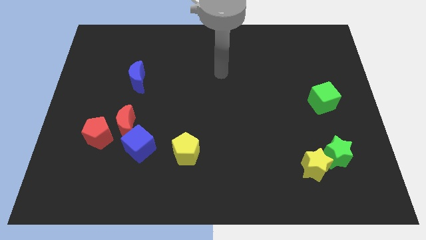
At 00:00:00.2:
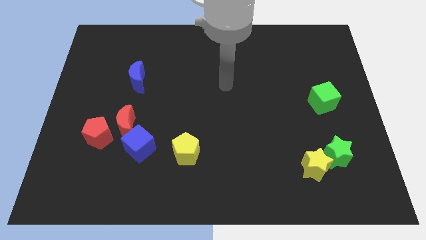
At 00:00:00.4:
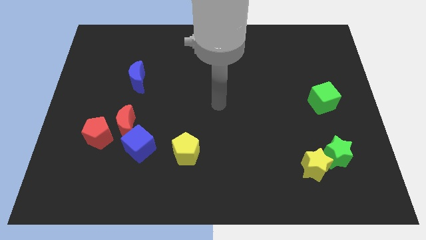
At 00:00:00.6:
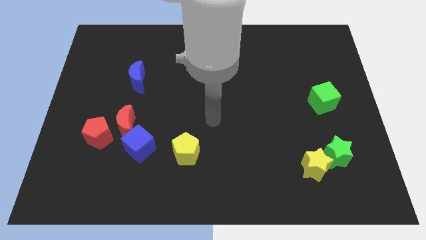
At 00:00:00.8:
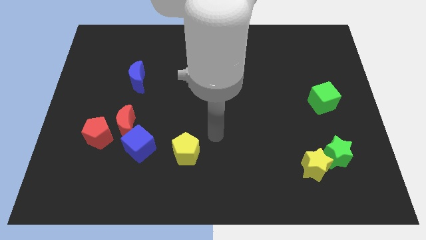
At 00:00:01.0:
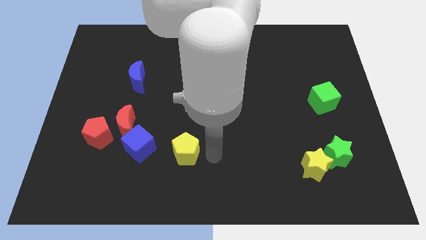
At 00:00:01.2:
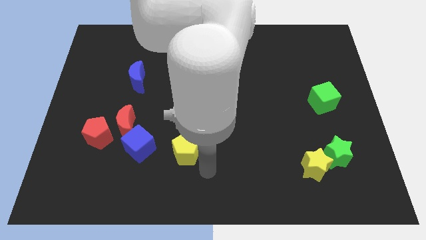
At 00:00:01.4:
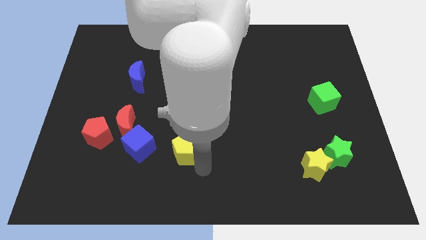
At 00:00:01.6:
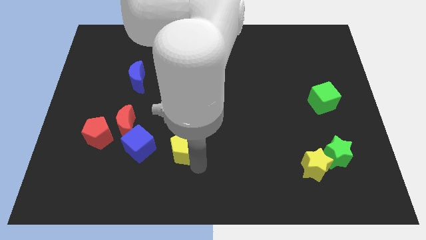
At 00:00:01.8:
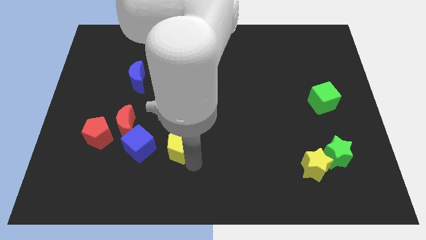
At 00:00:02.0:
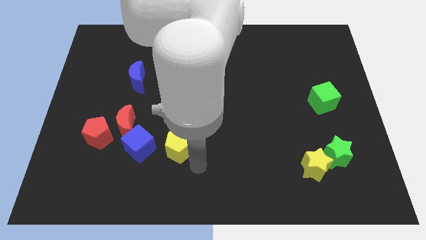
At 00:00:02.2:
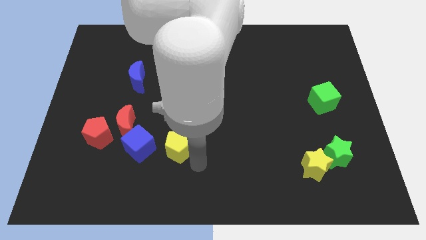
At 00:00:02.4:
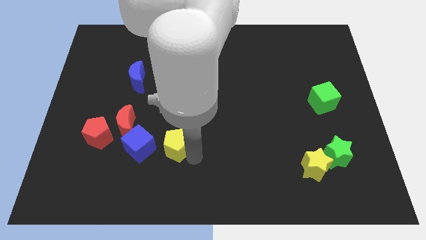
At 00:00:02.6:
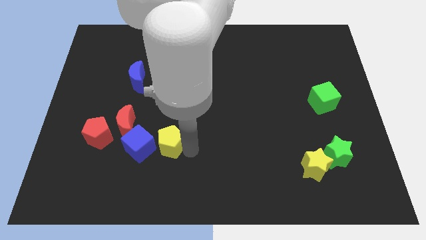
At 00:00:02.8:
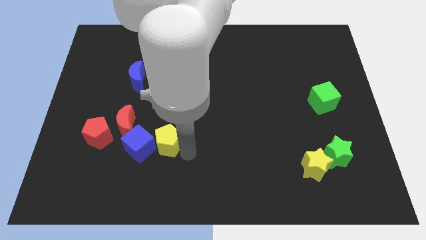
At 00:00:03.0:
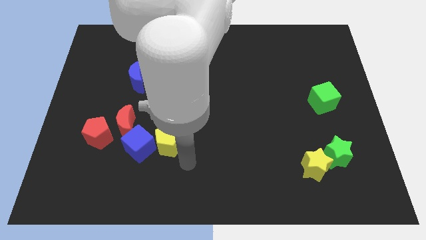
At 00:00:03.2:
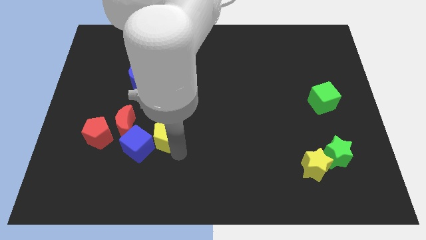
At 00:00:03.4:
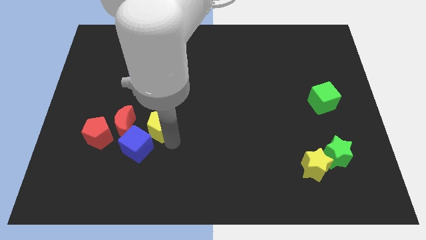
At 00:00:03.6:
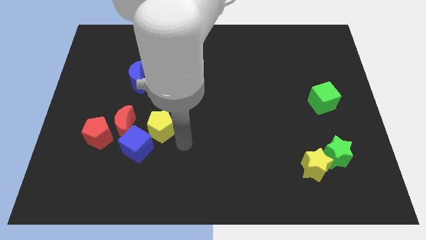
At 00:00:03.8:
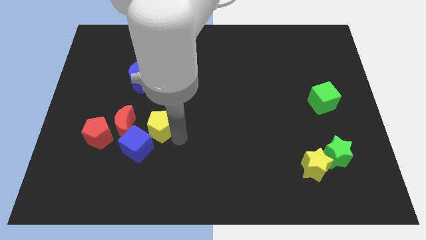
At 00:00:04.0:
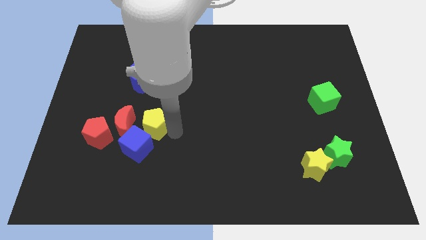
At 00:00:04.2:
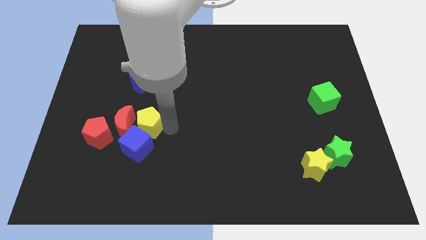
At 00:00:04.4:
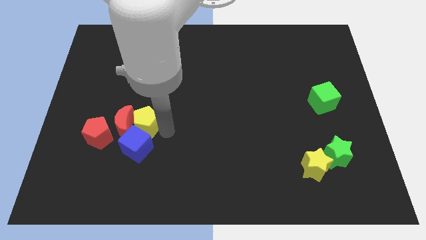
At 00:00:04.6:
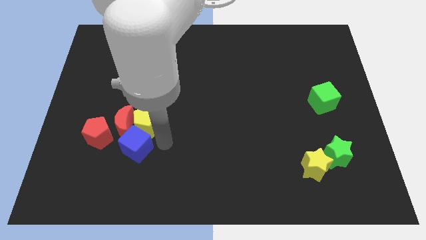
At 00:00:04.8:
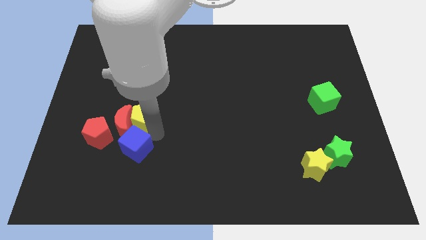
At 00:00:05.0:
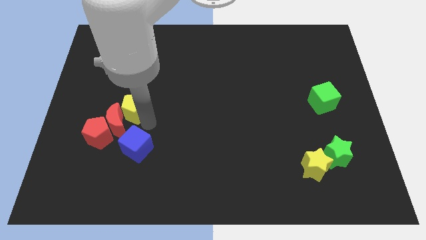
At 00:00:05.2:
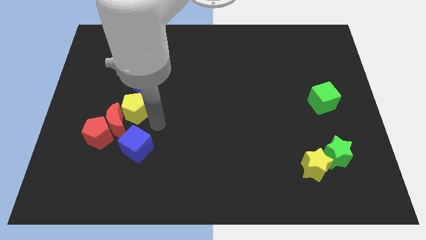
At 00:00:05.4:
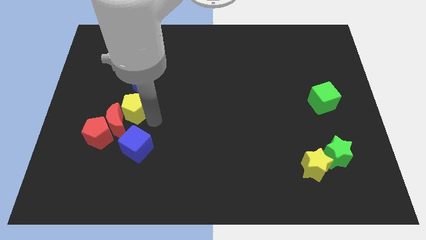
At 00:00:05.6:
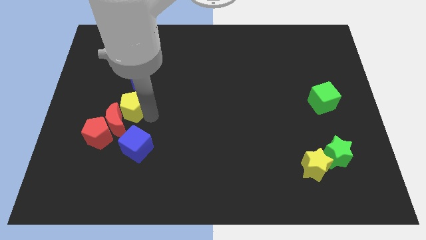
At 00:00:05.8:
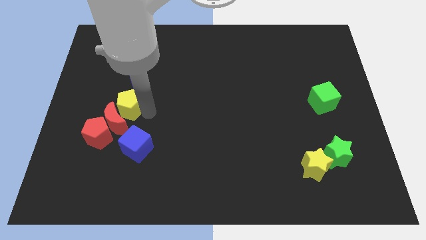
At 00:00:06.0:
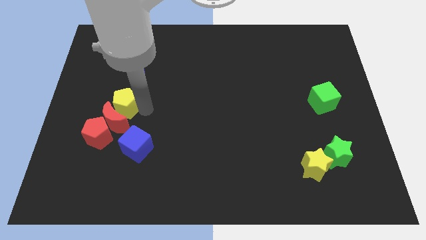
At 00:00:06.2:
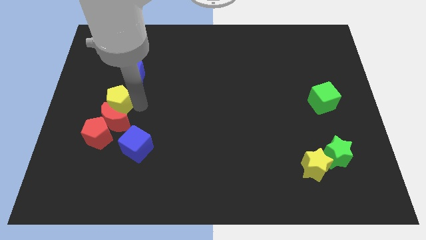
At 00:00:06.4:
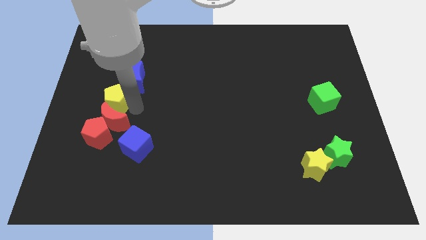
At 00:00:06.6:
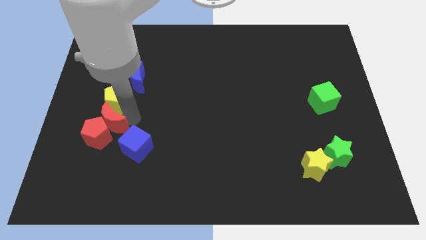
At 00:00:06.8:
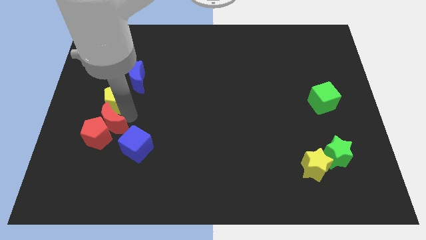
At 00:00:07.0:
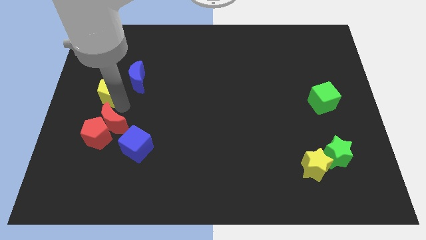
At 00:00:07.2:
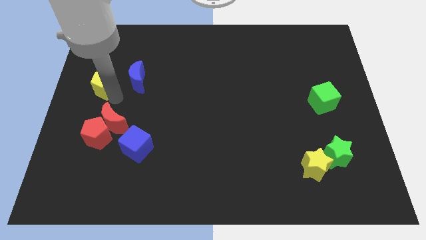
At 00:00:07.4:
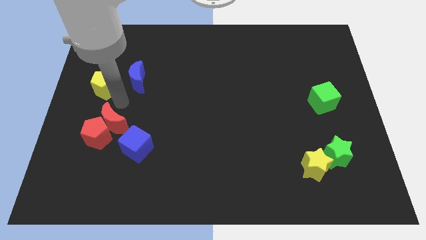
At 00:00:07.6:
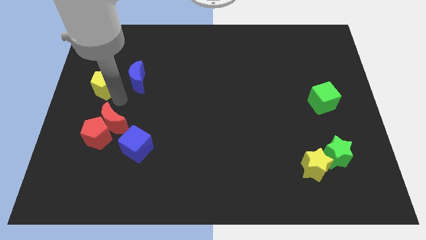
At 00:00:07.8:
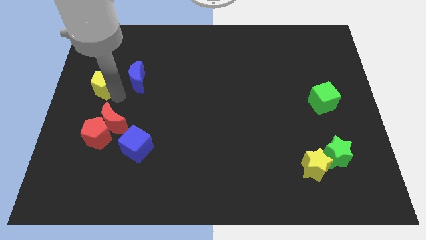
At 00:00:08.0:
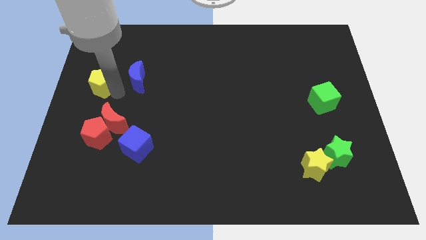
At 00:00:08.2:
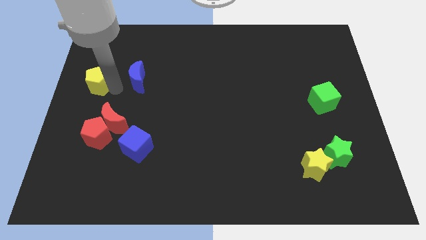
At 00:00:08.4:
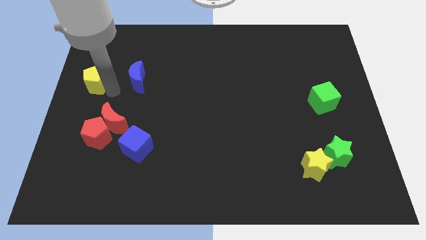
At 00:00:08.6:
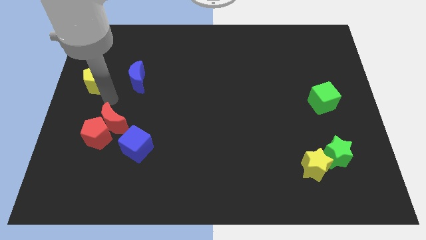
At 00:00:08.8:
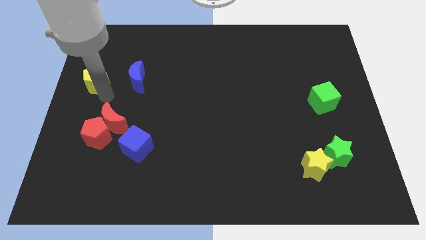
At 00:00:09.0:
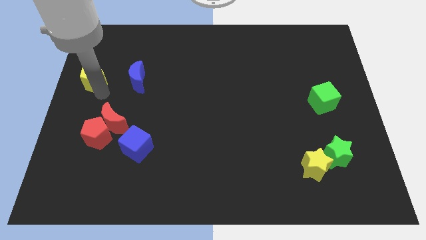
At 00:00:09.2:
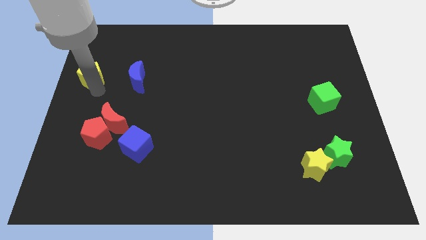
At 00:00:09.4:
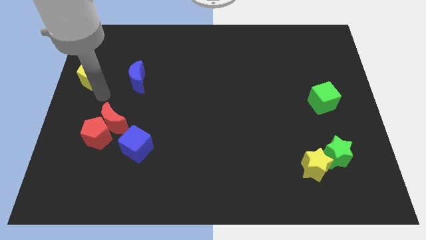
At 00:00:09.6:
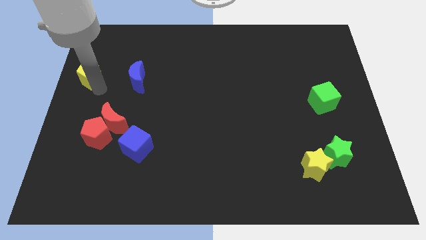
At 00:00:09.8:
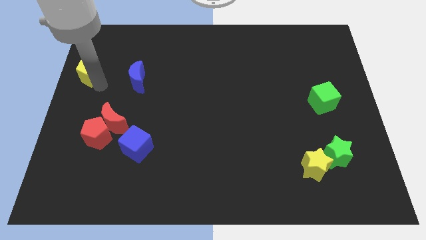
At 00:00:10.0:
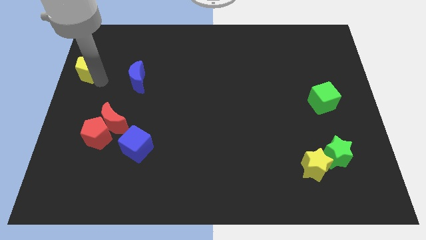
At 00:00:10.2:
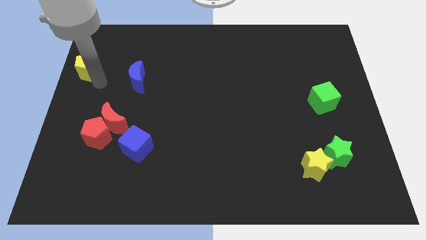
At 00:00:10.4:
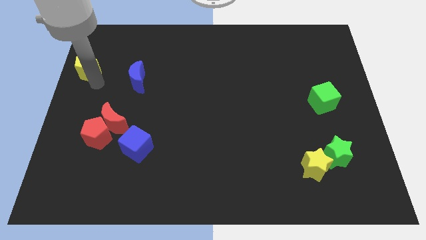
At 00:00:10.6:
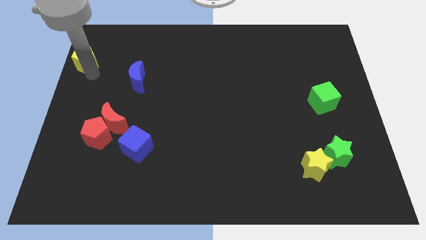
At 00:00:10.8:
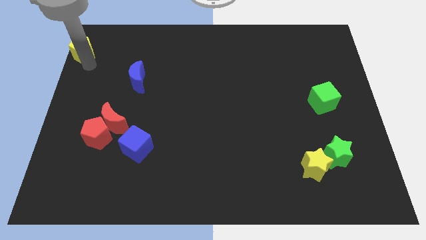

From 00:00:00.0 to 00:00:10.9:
slide the yellow pentagon to the top left of the board

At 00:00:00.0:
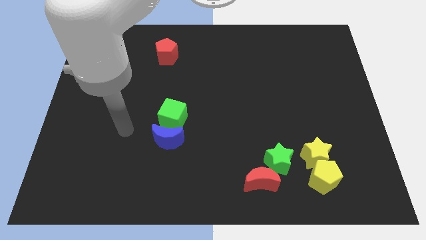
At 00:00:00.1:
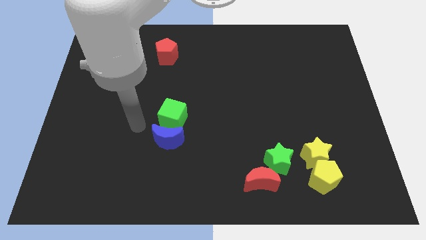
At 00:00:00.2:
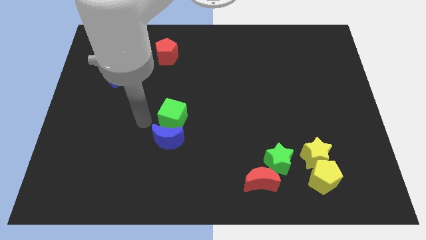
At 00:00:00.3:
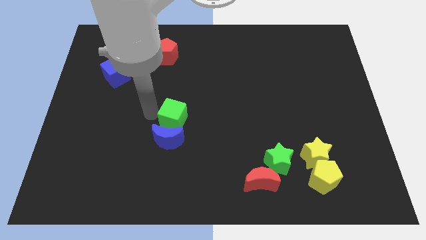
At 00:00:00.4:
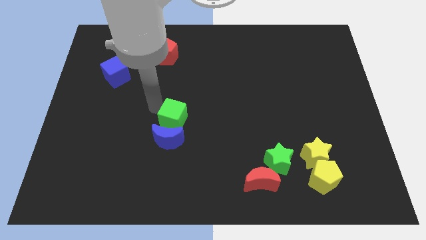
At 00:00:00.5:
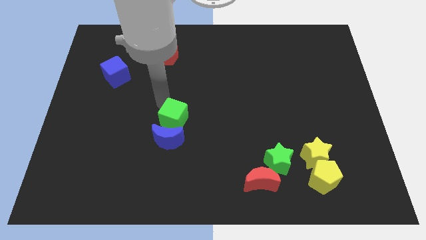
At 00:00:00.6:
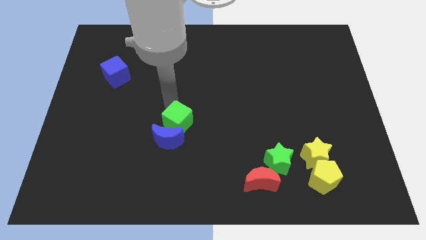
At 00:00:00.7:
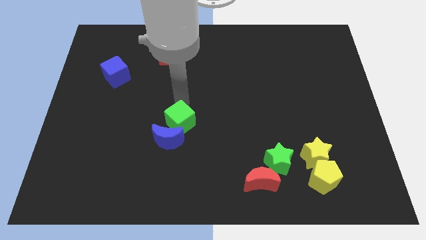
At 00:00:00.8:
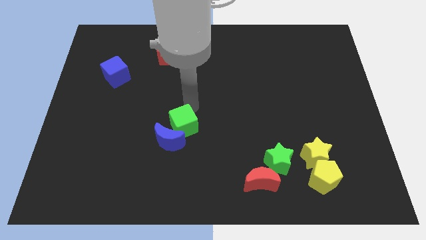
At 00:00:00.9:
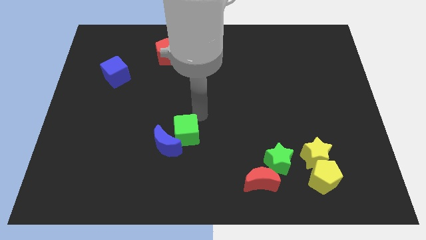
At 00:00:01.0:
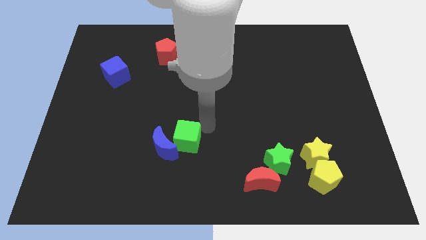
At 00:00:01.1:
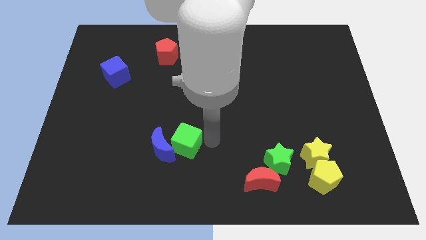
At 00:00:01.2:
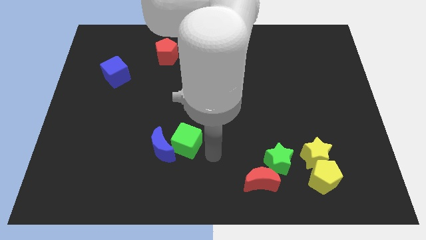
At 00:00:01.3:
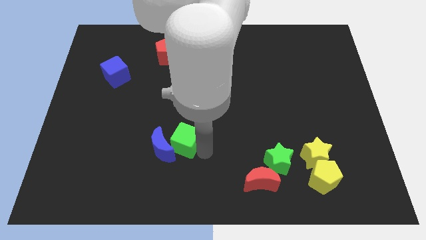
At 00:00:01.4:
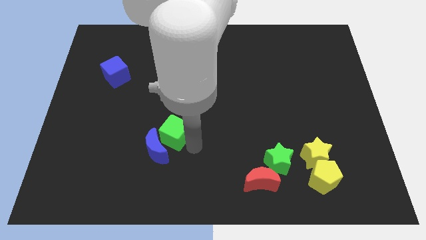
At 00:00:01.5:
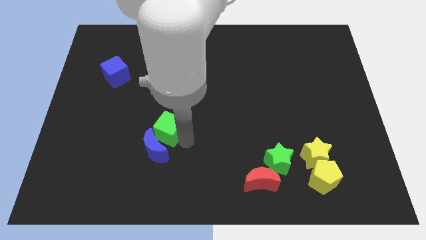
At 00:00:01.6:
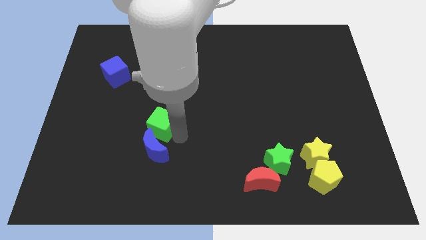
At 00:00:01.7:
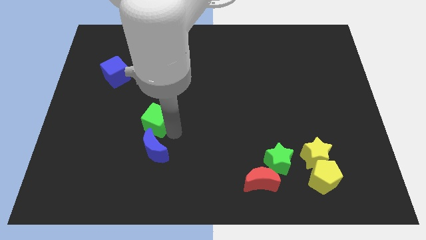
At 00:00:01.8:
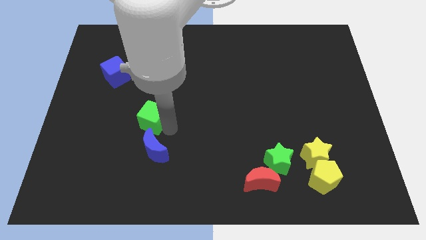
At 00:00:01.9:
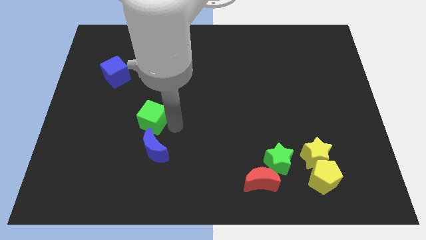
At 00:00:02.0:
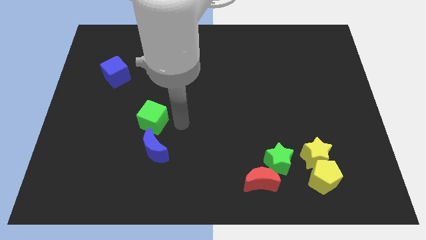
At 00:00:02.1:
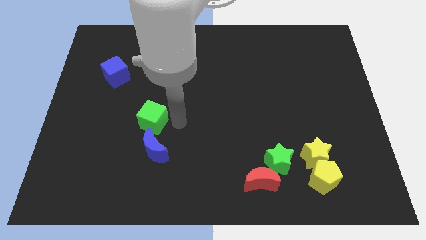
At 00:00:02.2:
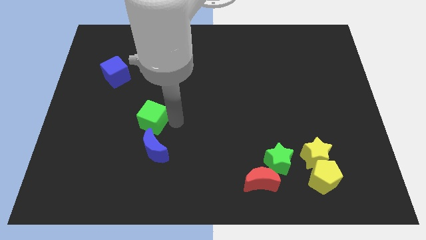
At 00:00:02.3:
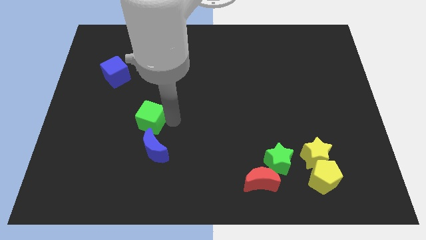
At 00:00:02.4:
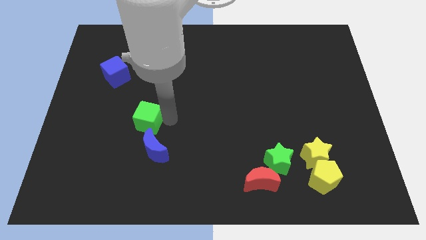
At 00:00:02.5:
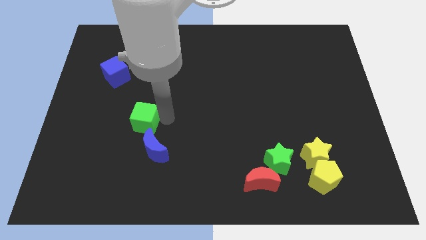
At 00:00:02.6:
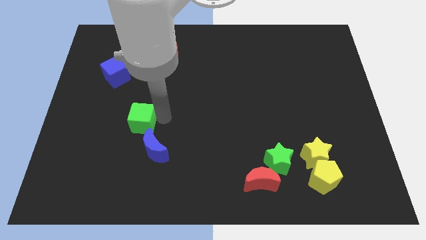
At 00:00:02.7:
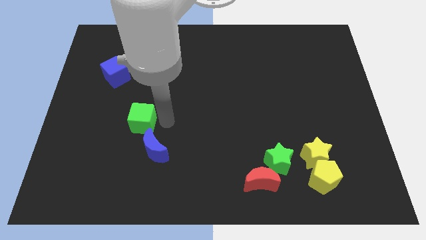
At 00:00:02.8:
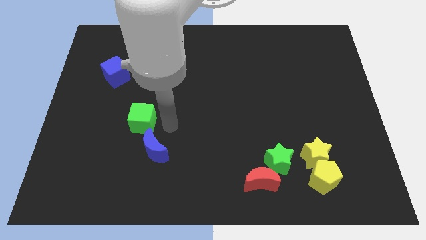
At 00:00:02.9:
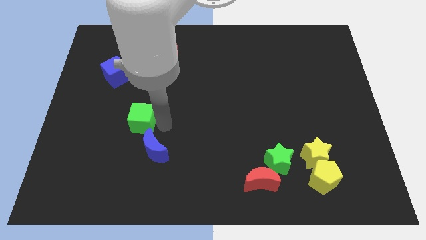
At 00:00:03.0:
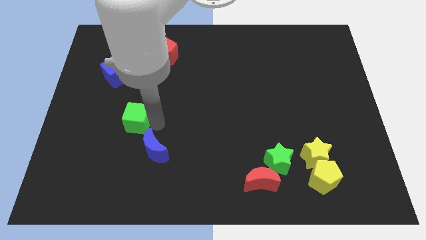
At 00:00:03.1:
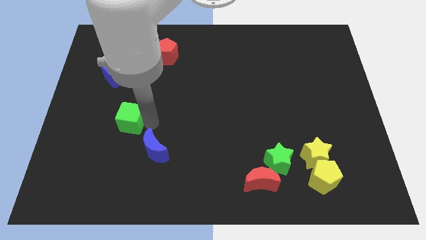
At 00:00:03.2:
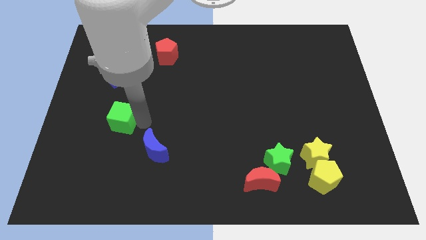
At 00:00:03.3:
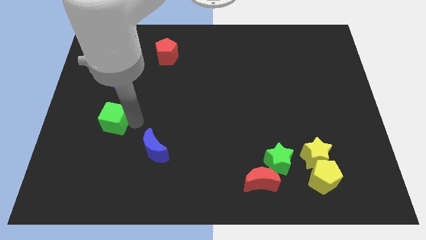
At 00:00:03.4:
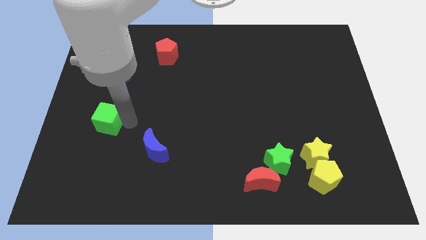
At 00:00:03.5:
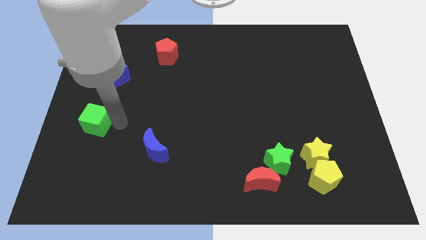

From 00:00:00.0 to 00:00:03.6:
push the green cube to the left side of the board
